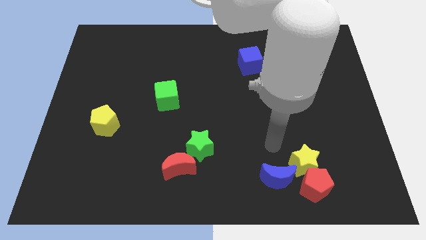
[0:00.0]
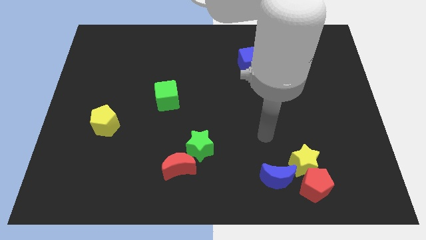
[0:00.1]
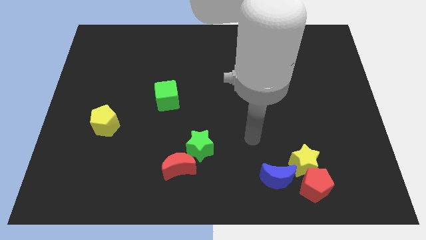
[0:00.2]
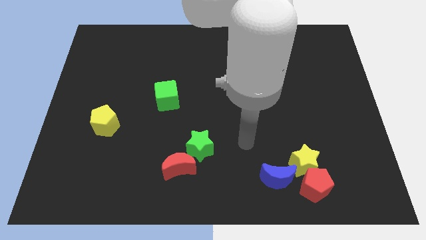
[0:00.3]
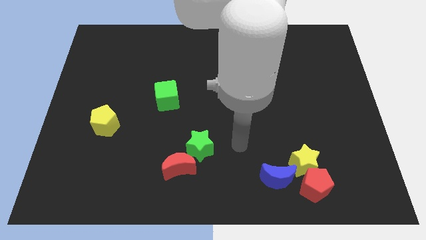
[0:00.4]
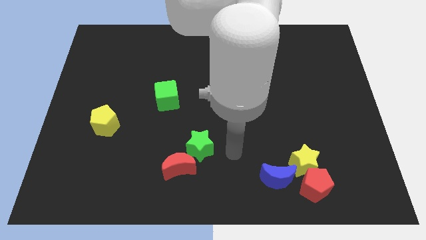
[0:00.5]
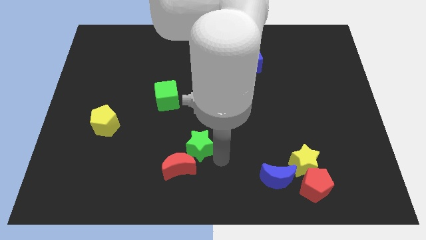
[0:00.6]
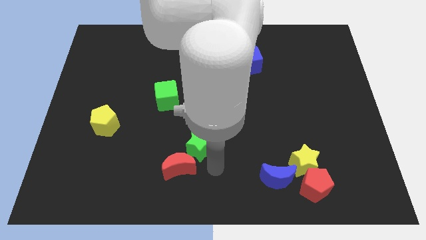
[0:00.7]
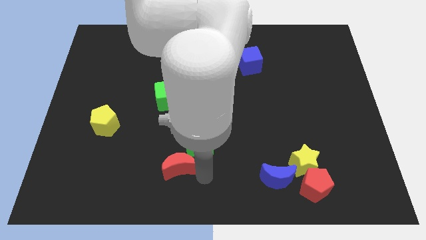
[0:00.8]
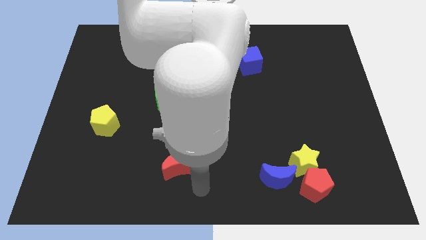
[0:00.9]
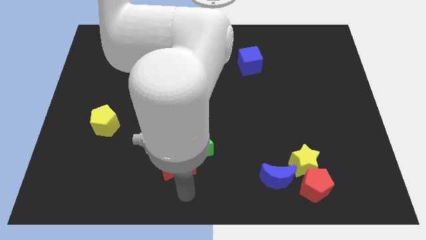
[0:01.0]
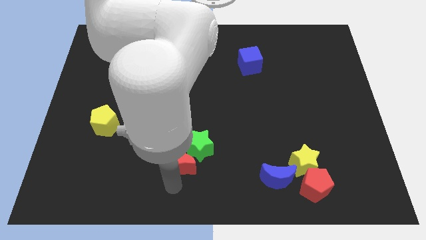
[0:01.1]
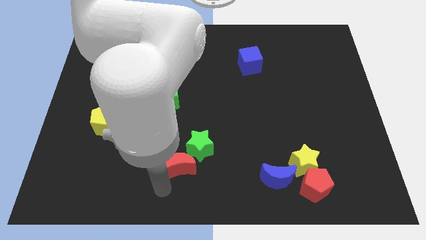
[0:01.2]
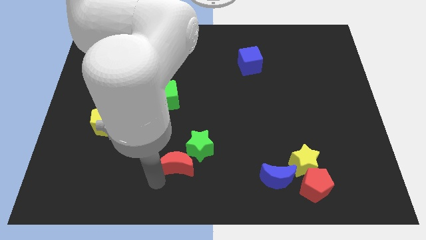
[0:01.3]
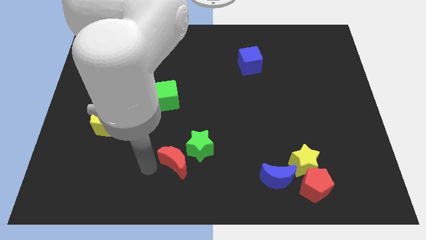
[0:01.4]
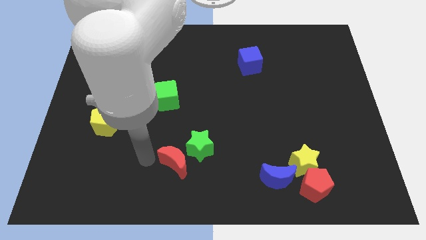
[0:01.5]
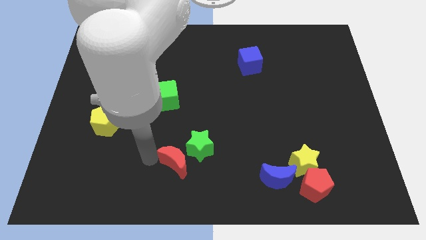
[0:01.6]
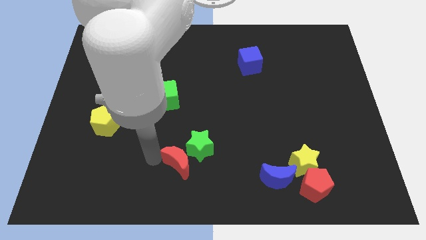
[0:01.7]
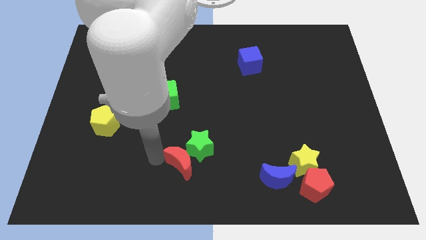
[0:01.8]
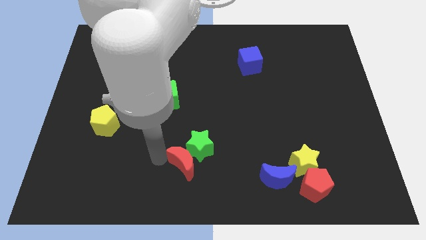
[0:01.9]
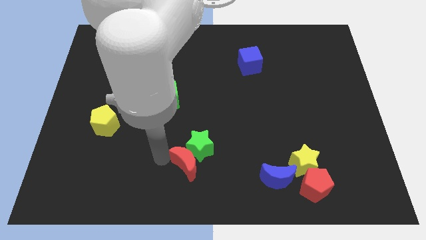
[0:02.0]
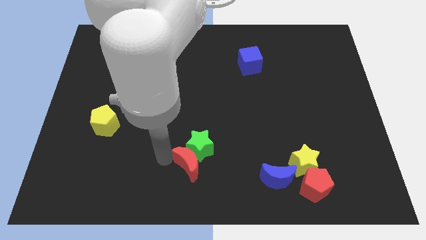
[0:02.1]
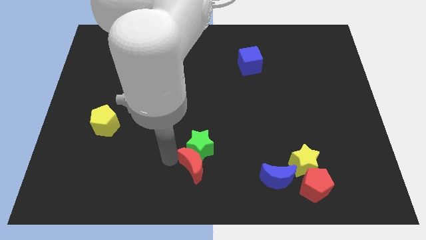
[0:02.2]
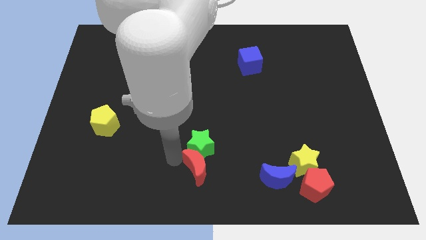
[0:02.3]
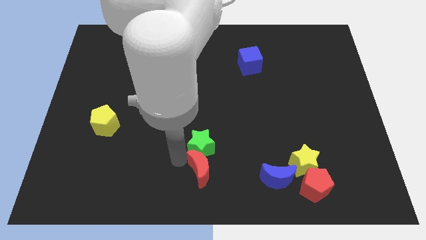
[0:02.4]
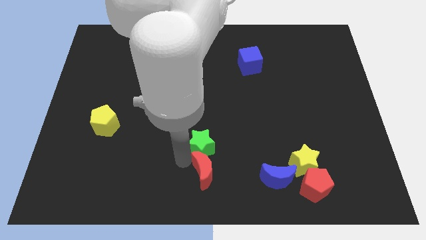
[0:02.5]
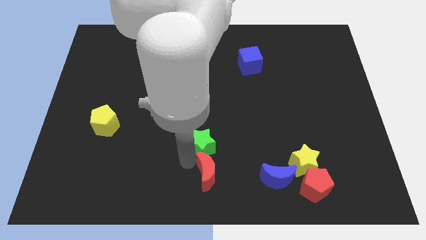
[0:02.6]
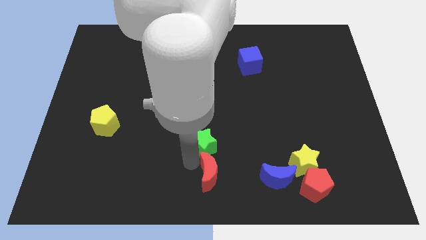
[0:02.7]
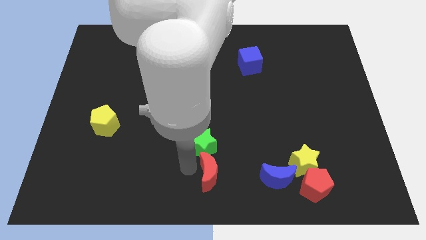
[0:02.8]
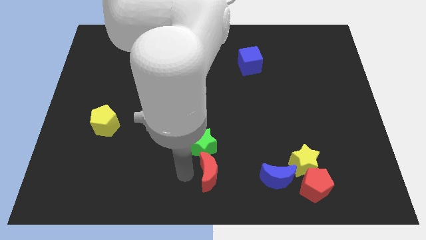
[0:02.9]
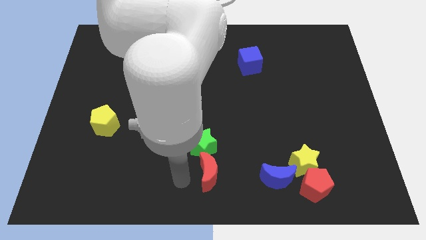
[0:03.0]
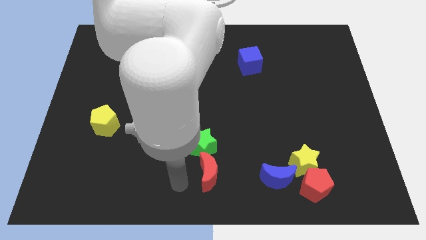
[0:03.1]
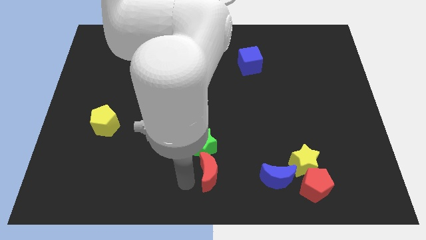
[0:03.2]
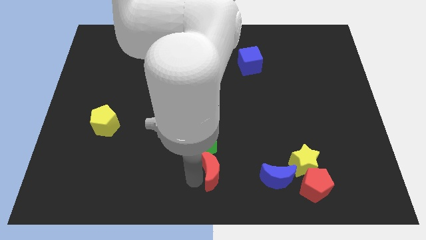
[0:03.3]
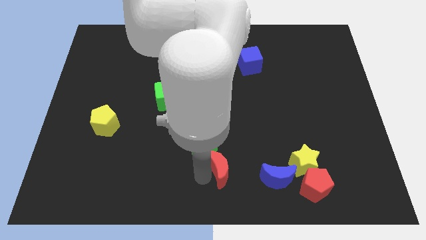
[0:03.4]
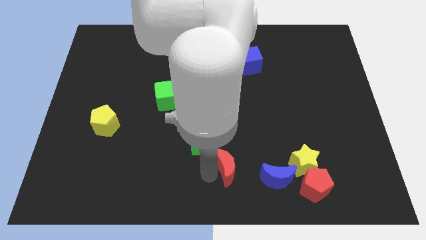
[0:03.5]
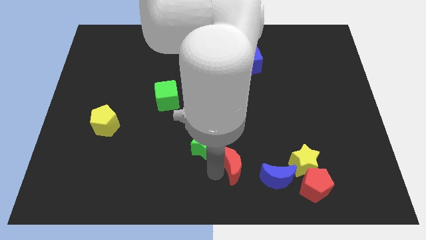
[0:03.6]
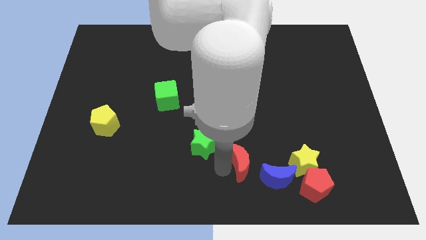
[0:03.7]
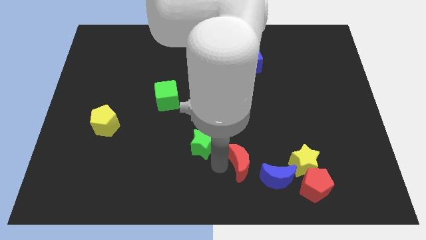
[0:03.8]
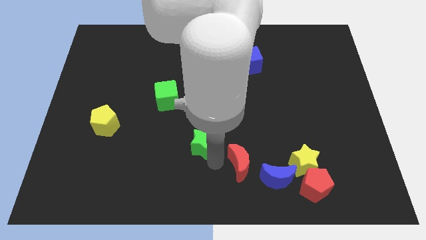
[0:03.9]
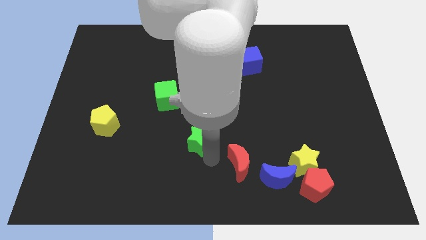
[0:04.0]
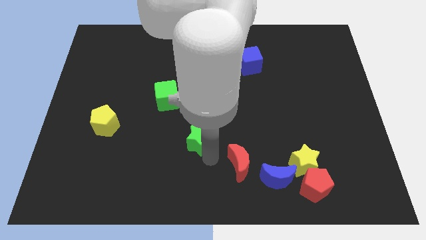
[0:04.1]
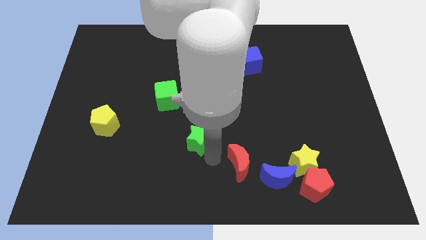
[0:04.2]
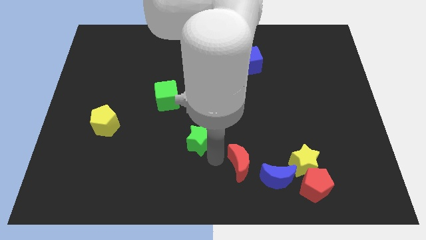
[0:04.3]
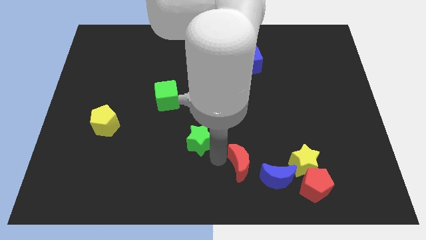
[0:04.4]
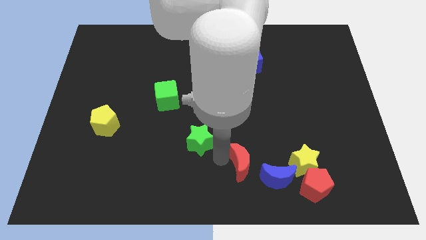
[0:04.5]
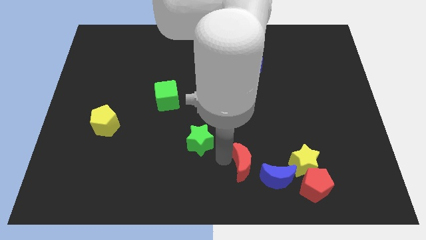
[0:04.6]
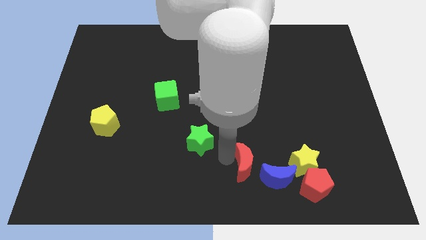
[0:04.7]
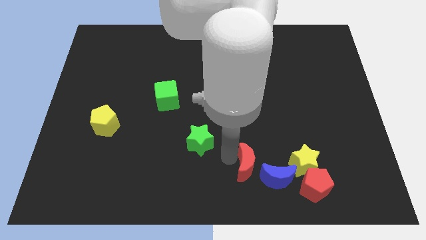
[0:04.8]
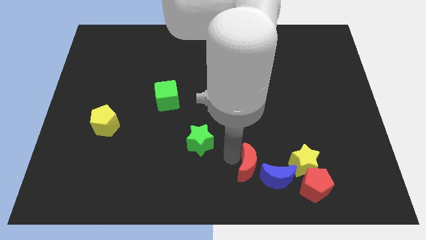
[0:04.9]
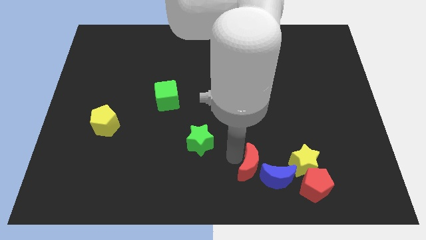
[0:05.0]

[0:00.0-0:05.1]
move the red moon close to the blue moon

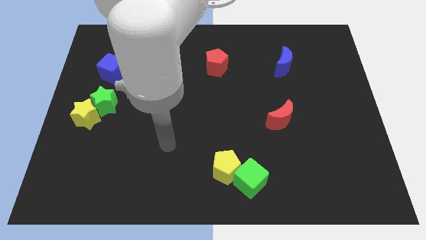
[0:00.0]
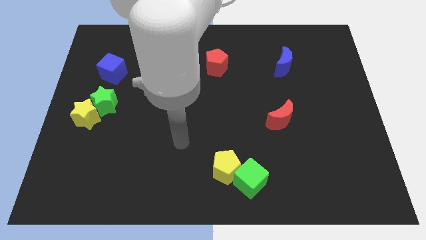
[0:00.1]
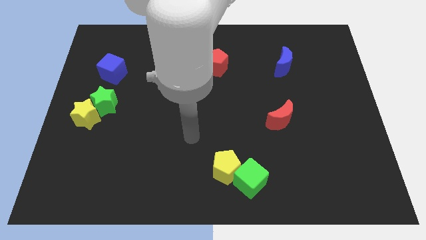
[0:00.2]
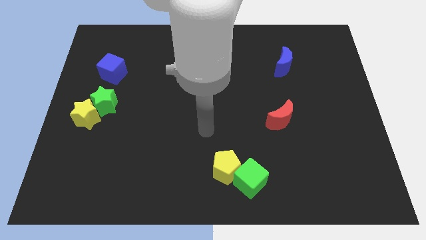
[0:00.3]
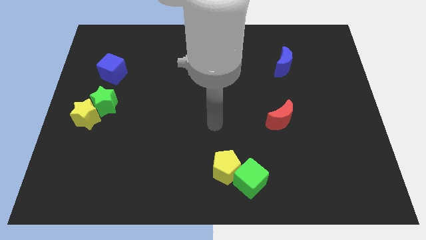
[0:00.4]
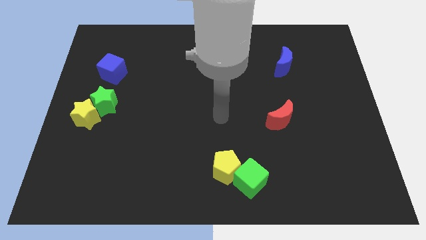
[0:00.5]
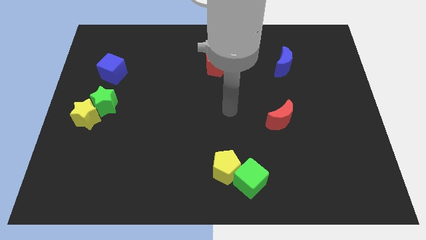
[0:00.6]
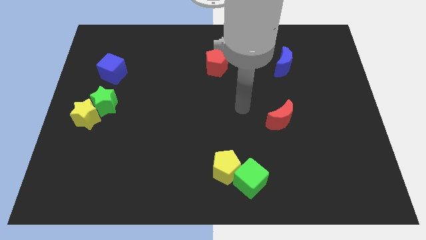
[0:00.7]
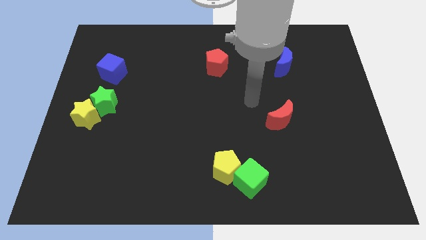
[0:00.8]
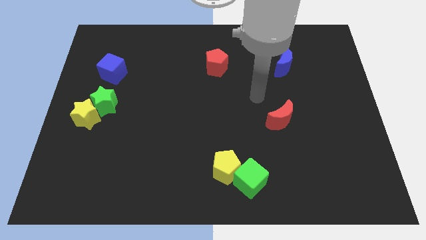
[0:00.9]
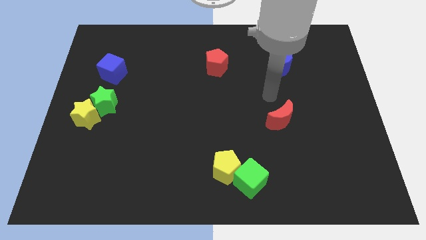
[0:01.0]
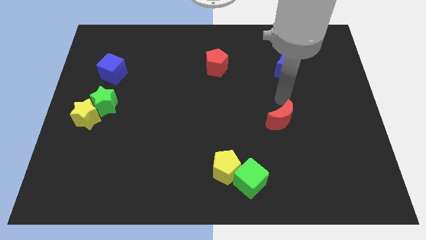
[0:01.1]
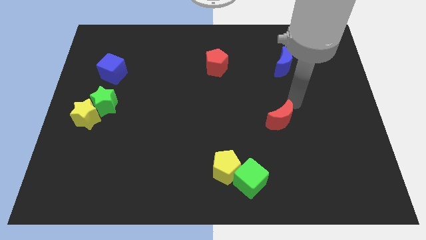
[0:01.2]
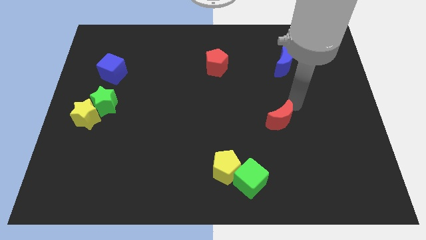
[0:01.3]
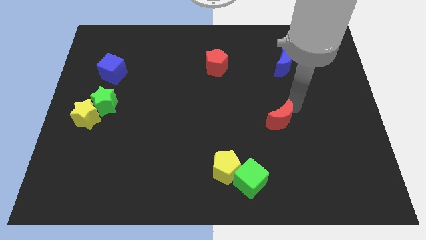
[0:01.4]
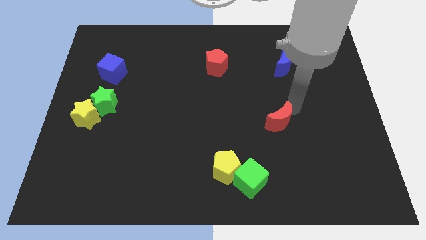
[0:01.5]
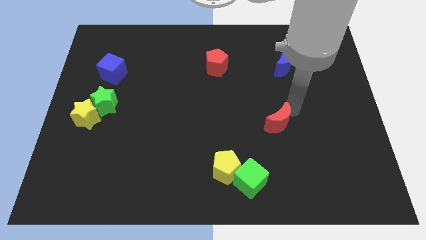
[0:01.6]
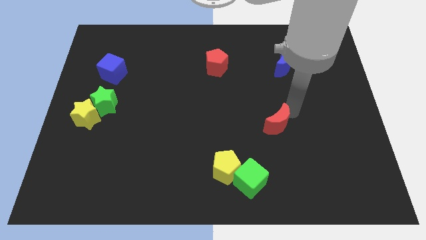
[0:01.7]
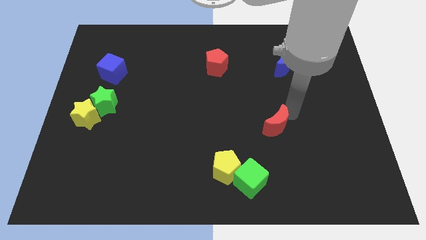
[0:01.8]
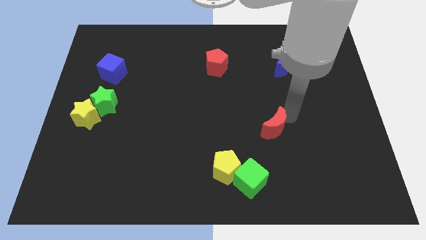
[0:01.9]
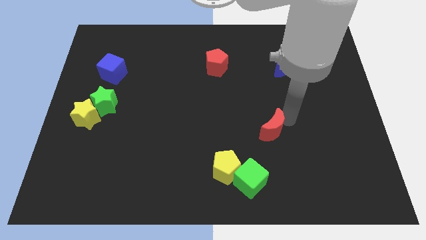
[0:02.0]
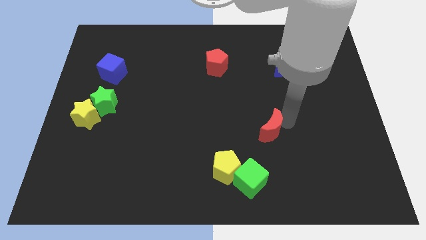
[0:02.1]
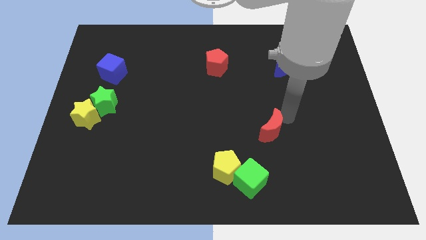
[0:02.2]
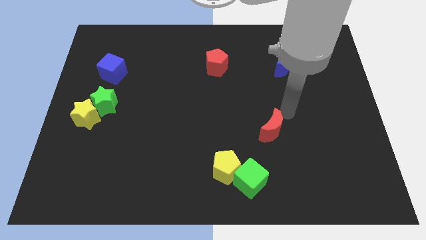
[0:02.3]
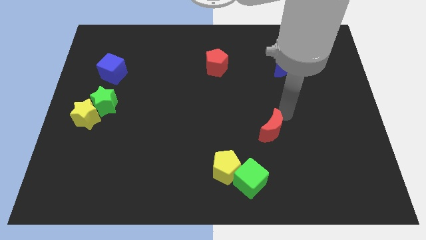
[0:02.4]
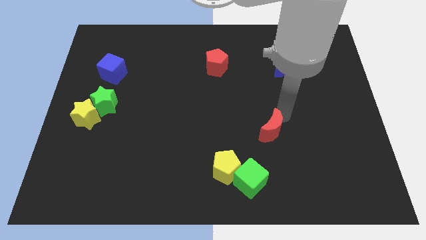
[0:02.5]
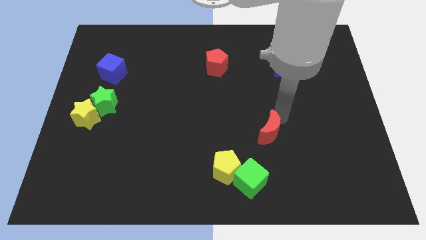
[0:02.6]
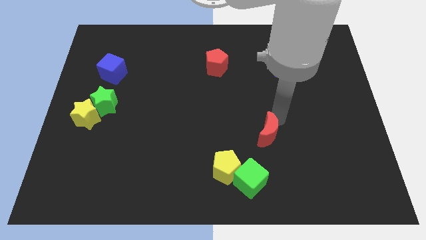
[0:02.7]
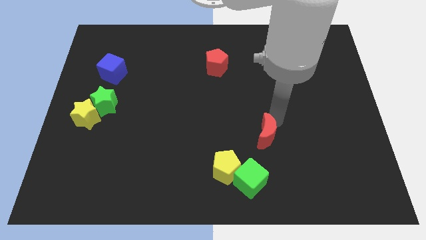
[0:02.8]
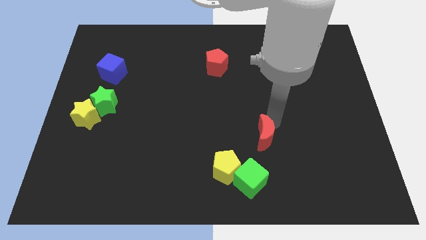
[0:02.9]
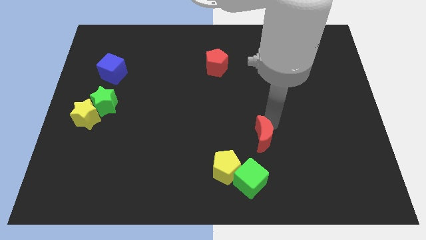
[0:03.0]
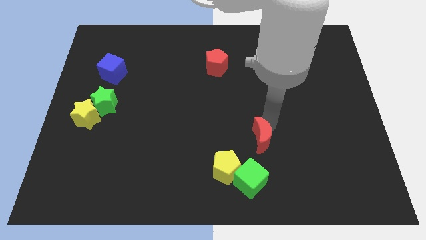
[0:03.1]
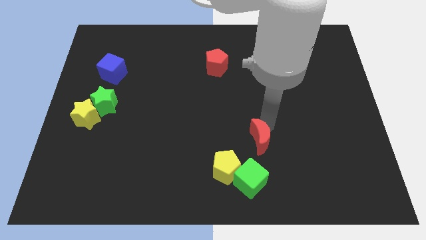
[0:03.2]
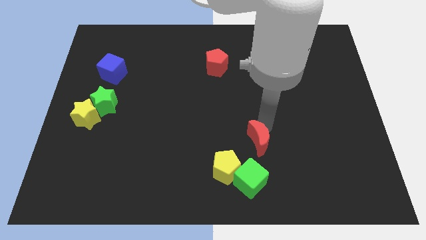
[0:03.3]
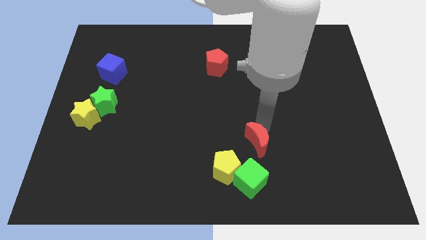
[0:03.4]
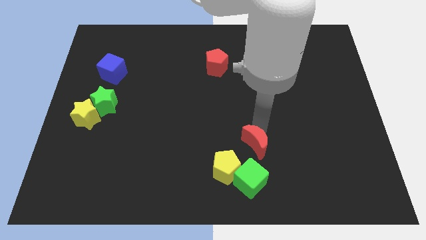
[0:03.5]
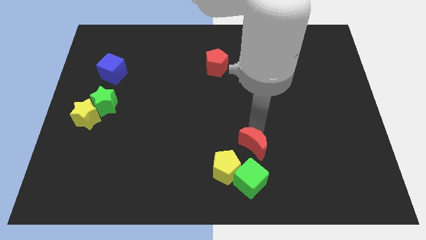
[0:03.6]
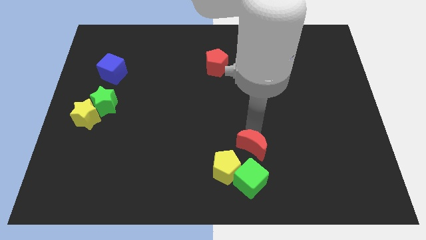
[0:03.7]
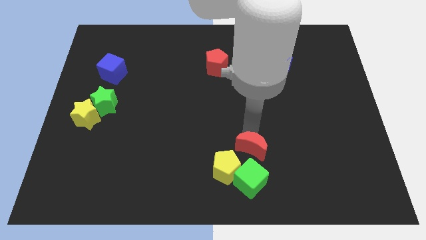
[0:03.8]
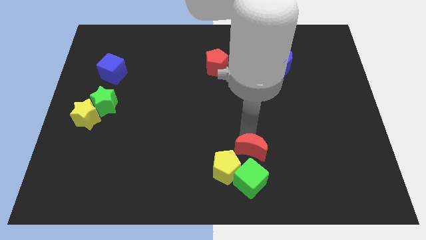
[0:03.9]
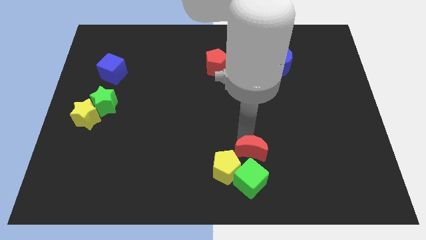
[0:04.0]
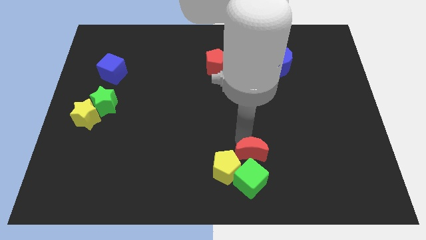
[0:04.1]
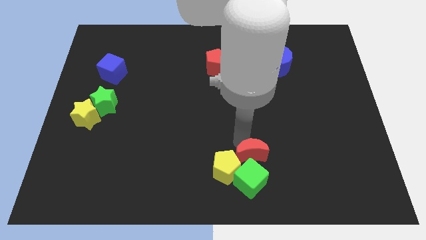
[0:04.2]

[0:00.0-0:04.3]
push the red moon to the green cube
